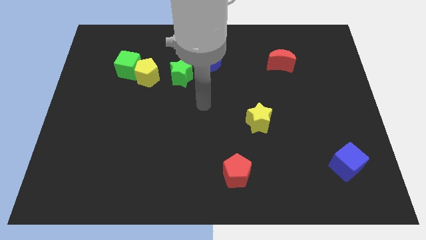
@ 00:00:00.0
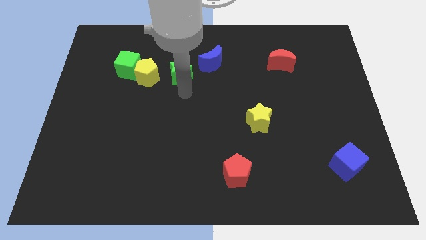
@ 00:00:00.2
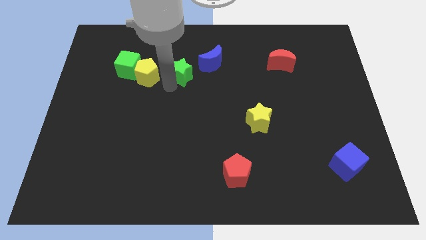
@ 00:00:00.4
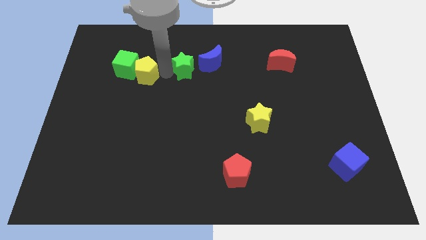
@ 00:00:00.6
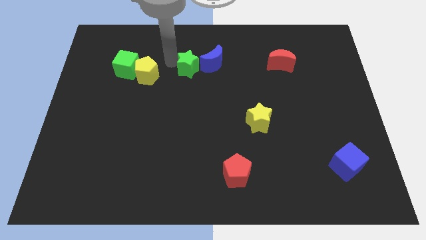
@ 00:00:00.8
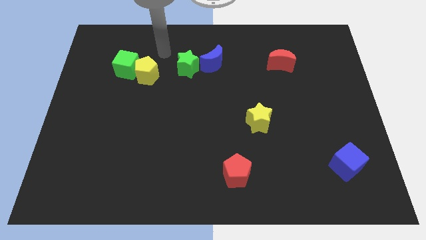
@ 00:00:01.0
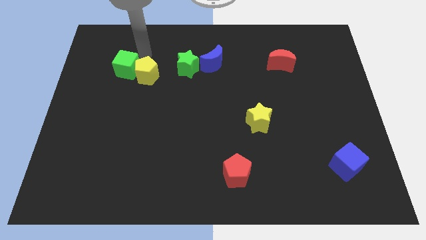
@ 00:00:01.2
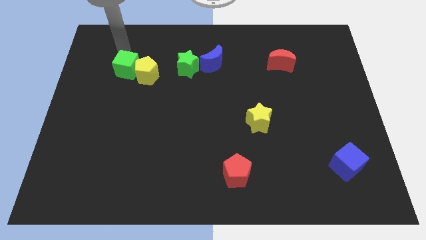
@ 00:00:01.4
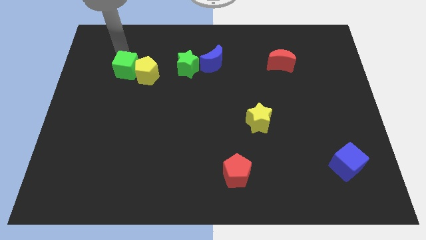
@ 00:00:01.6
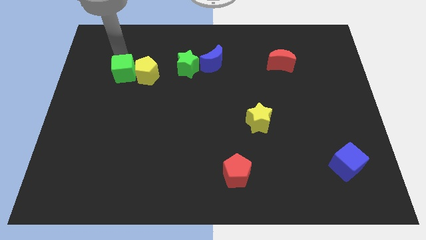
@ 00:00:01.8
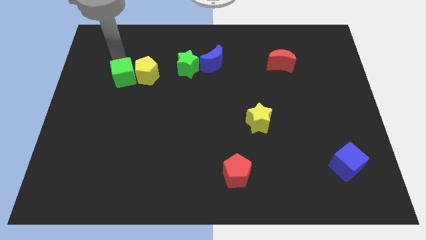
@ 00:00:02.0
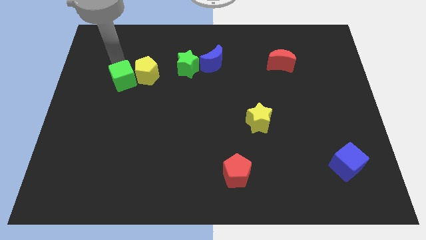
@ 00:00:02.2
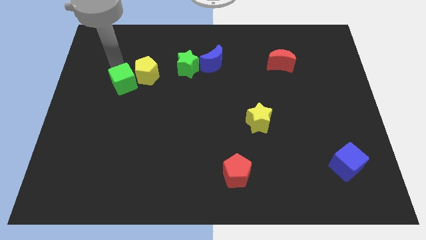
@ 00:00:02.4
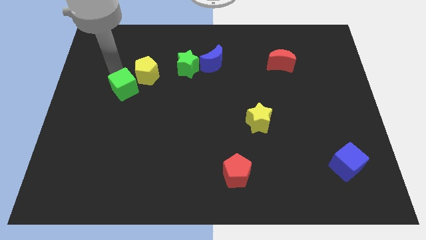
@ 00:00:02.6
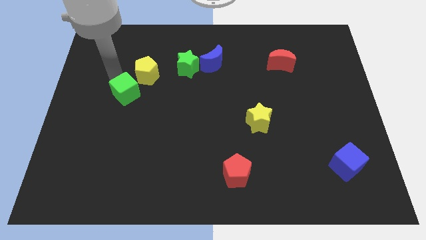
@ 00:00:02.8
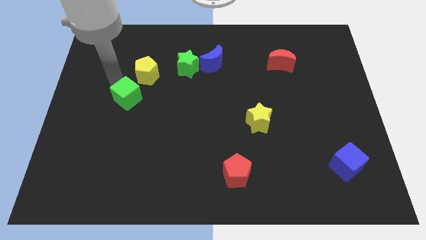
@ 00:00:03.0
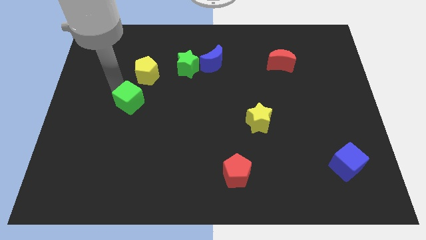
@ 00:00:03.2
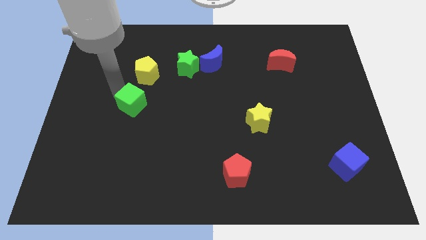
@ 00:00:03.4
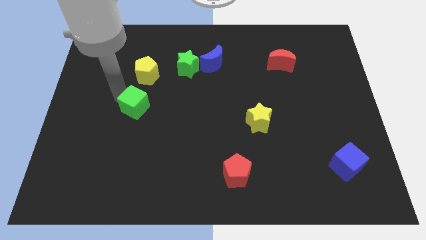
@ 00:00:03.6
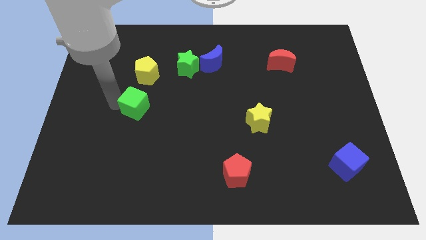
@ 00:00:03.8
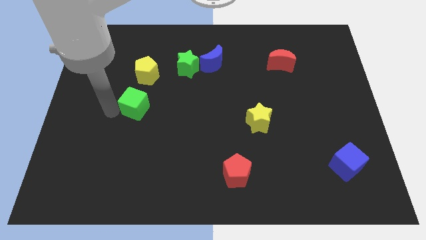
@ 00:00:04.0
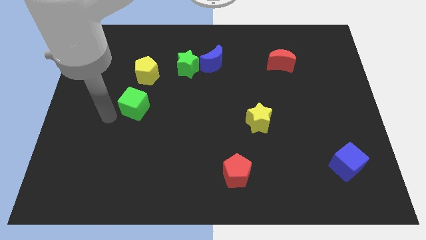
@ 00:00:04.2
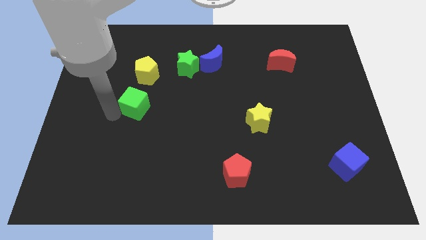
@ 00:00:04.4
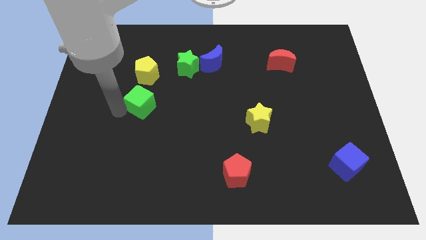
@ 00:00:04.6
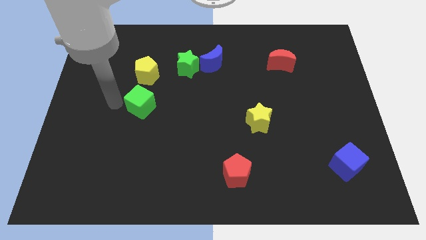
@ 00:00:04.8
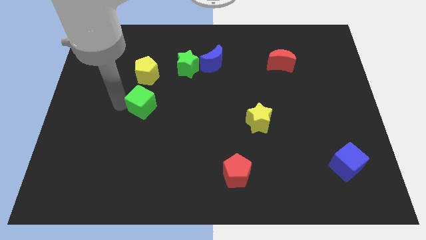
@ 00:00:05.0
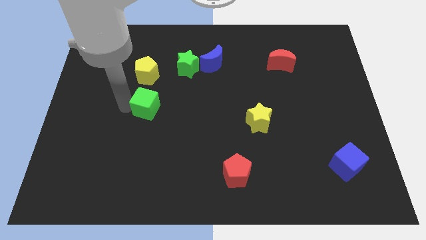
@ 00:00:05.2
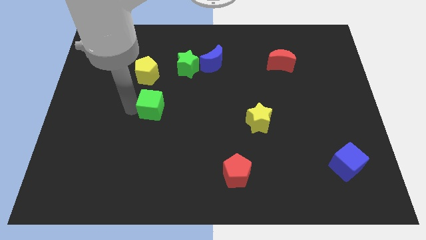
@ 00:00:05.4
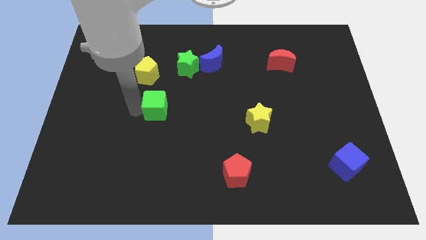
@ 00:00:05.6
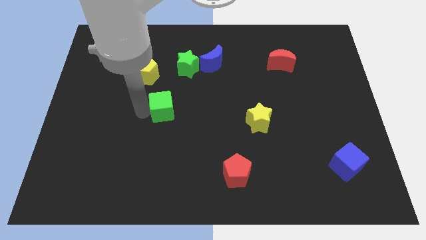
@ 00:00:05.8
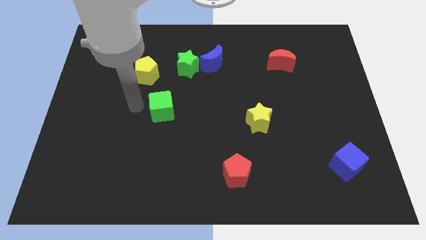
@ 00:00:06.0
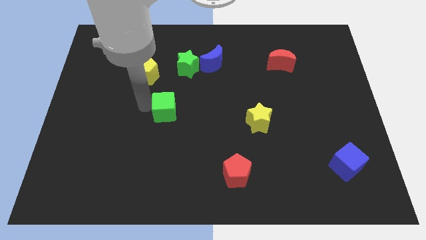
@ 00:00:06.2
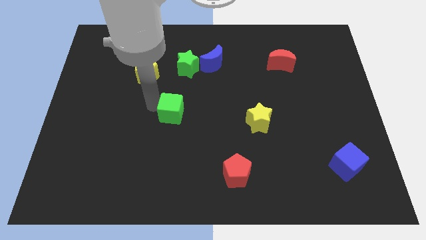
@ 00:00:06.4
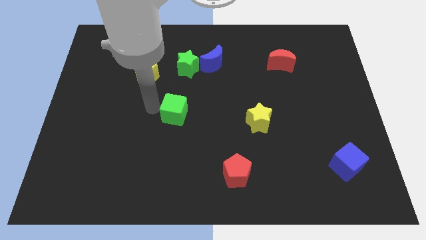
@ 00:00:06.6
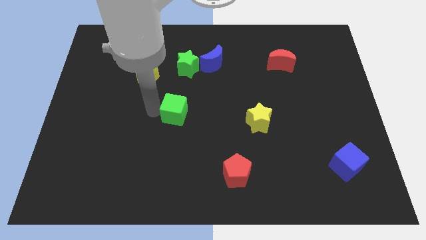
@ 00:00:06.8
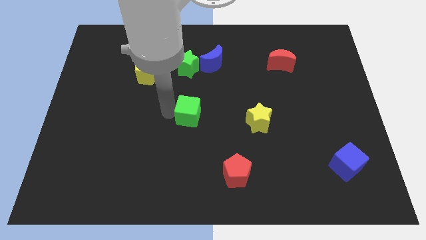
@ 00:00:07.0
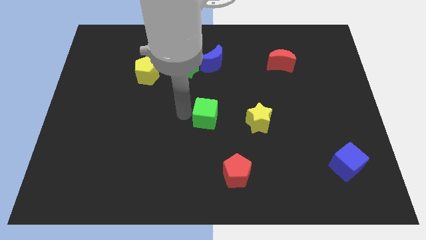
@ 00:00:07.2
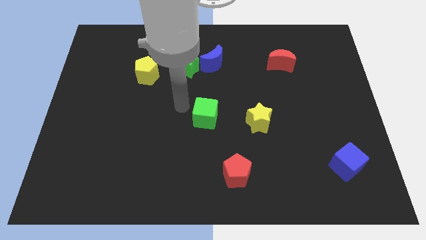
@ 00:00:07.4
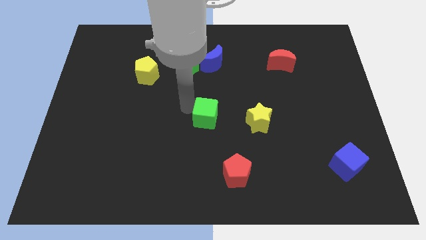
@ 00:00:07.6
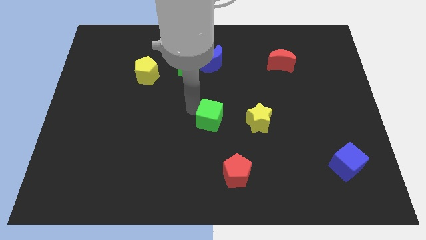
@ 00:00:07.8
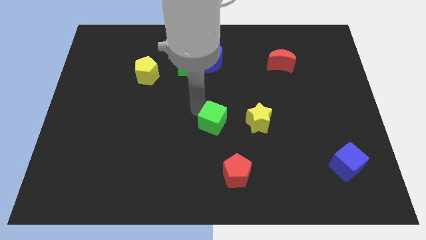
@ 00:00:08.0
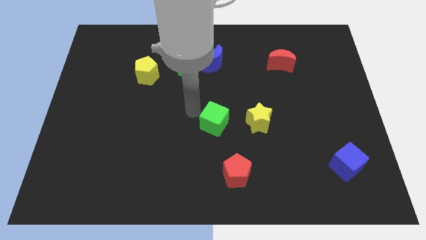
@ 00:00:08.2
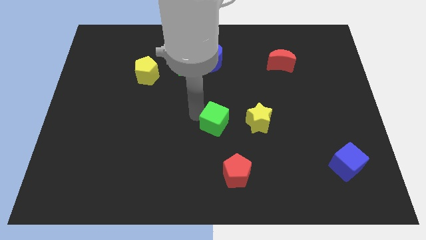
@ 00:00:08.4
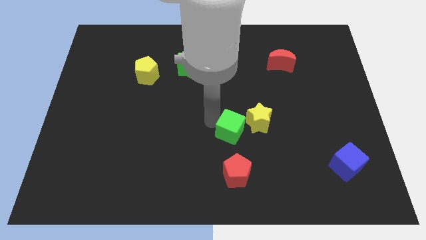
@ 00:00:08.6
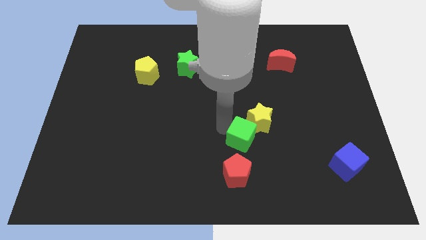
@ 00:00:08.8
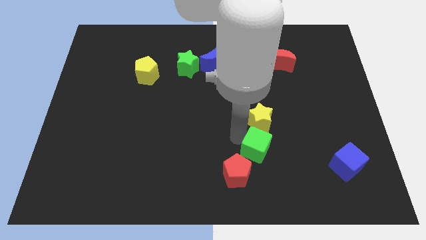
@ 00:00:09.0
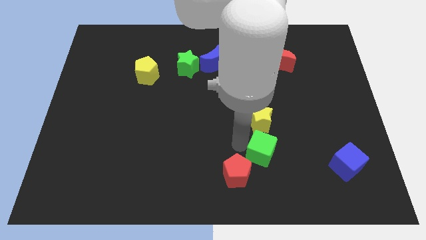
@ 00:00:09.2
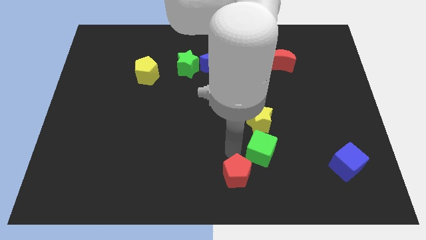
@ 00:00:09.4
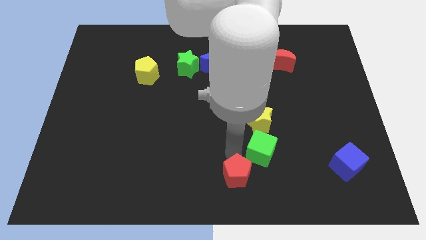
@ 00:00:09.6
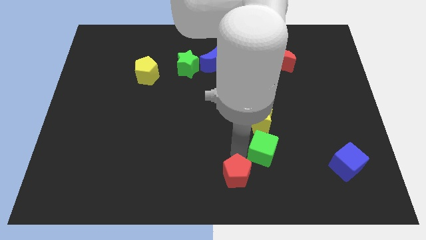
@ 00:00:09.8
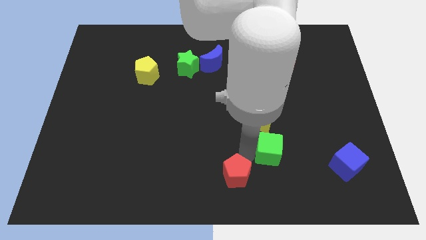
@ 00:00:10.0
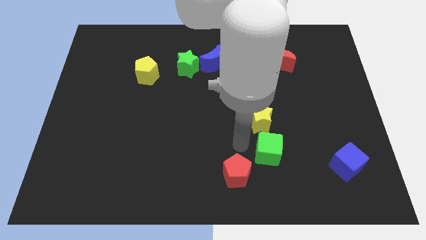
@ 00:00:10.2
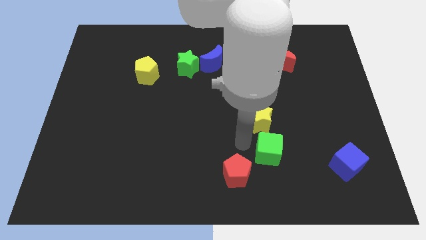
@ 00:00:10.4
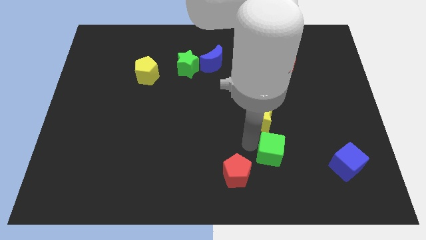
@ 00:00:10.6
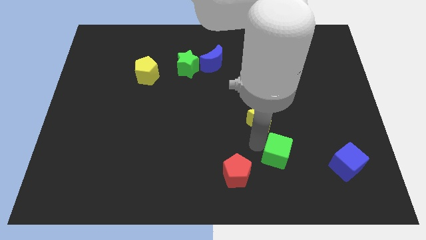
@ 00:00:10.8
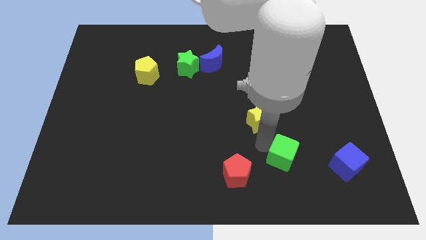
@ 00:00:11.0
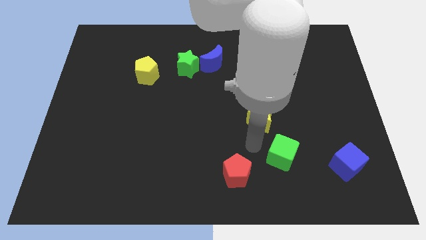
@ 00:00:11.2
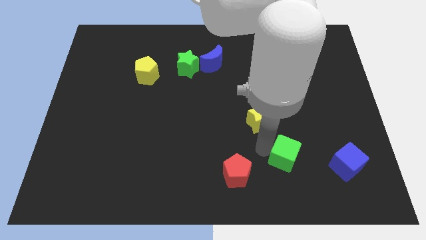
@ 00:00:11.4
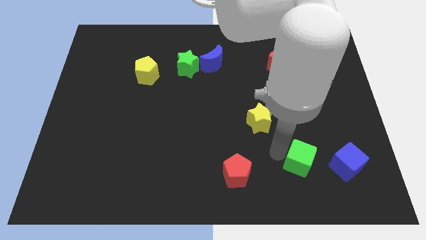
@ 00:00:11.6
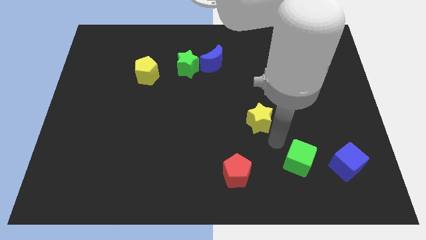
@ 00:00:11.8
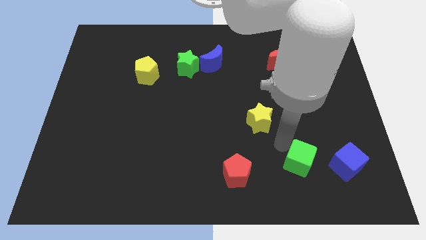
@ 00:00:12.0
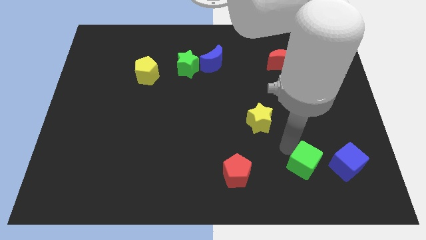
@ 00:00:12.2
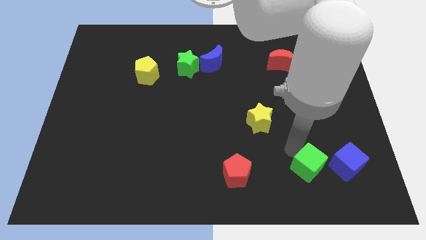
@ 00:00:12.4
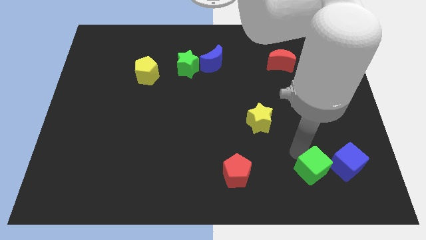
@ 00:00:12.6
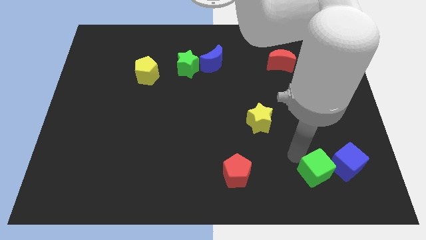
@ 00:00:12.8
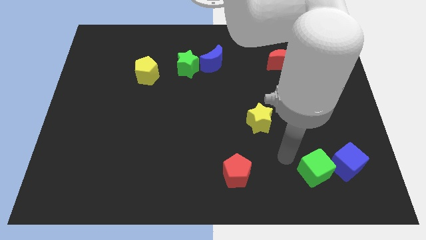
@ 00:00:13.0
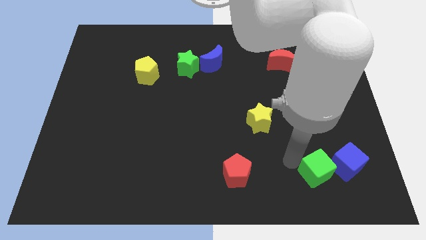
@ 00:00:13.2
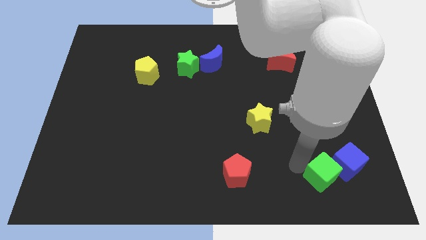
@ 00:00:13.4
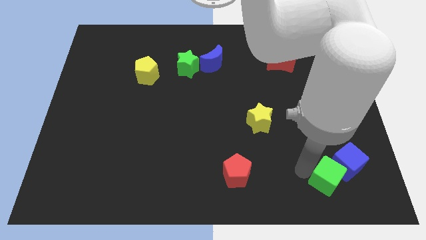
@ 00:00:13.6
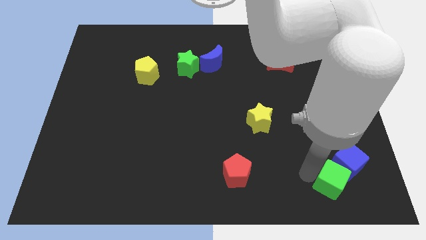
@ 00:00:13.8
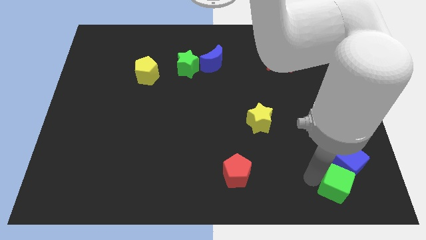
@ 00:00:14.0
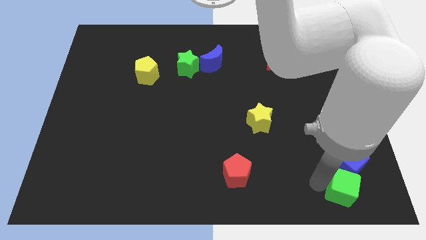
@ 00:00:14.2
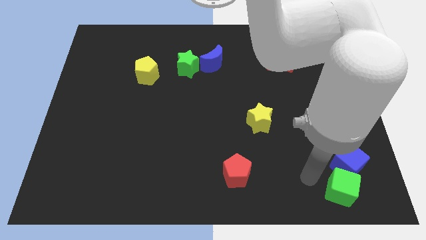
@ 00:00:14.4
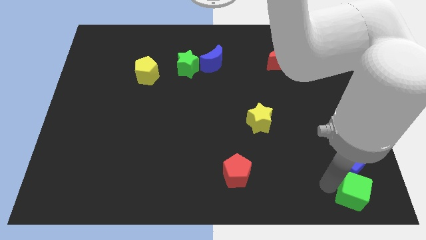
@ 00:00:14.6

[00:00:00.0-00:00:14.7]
push the green cube to the bottom right
